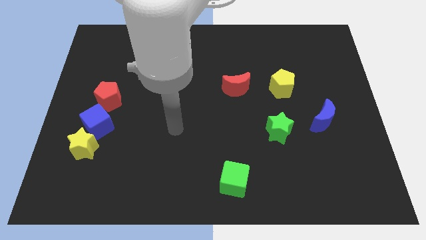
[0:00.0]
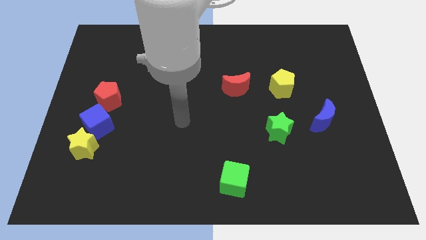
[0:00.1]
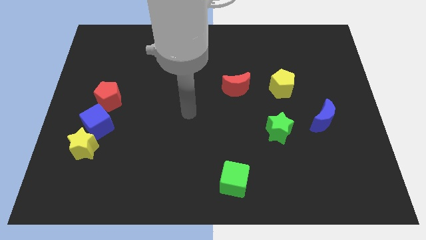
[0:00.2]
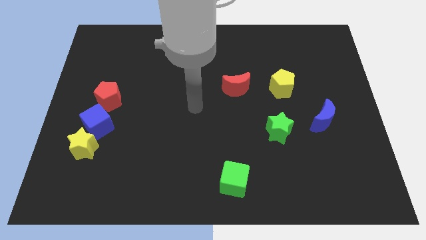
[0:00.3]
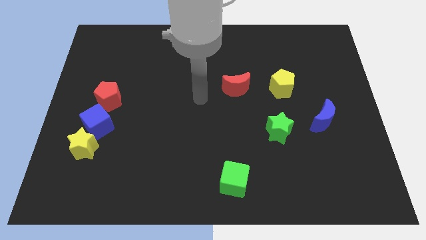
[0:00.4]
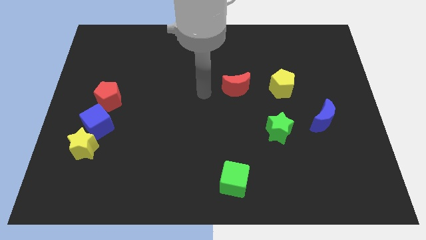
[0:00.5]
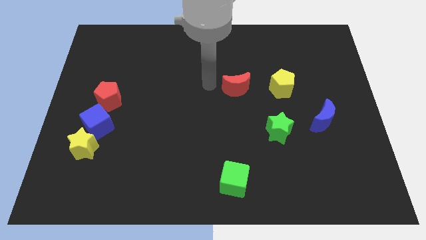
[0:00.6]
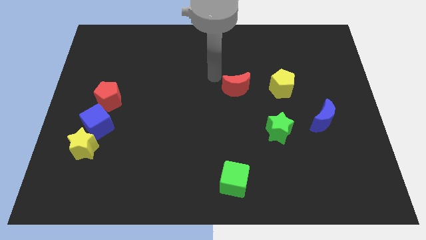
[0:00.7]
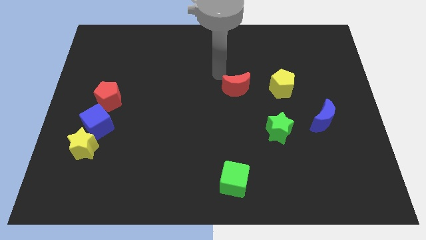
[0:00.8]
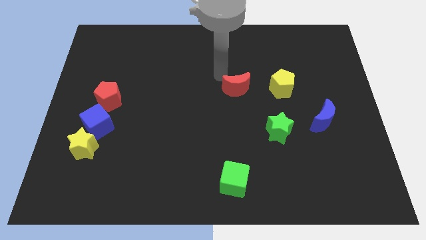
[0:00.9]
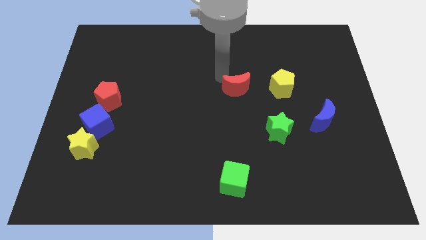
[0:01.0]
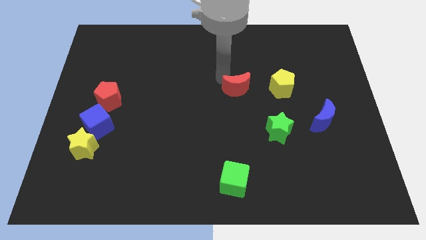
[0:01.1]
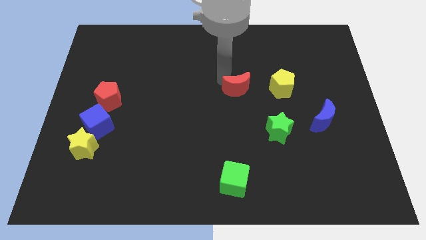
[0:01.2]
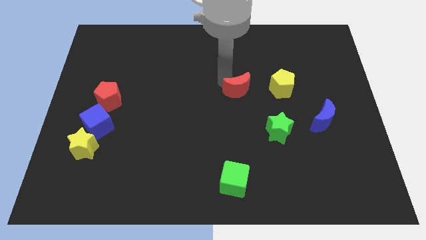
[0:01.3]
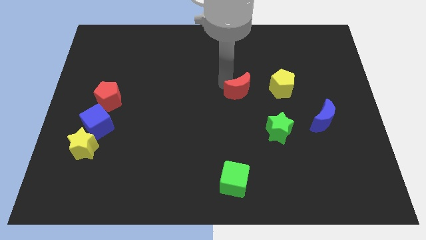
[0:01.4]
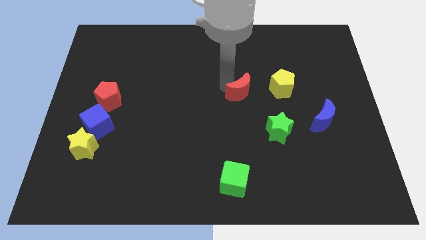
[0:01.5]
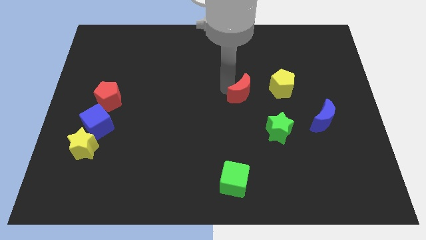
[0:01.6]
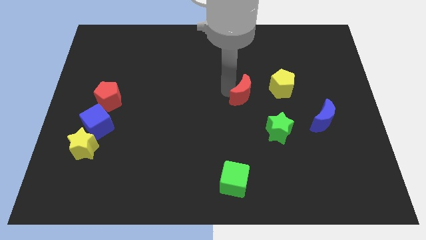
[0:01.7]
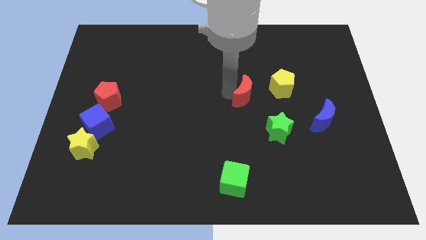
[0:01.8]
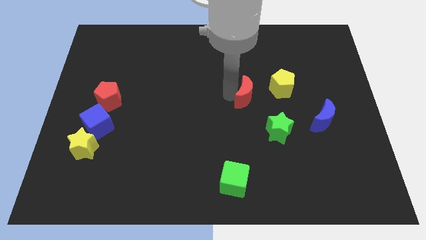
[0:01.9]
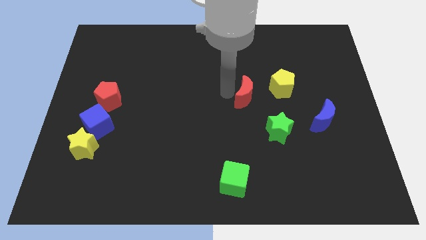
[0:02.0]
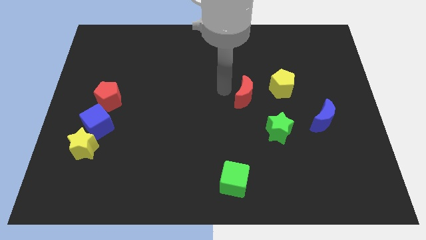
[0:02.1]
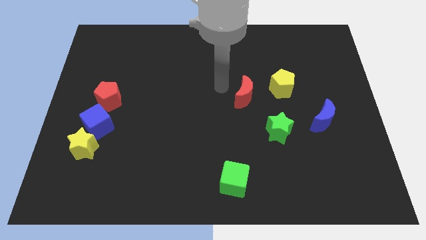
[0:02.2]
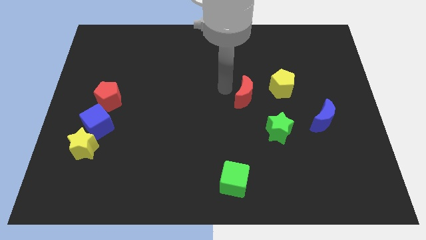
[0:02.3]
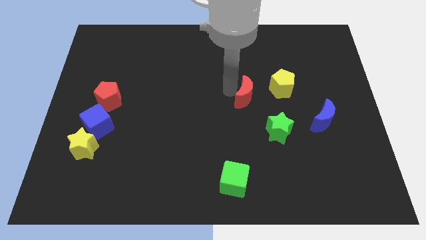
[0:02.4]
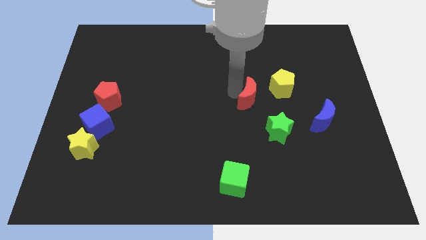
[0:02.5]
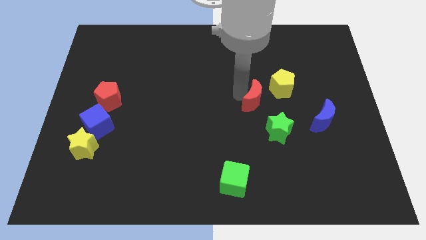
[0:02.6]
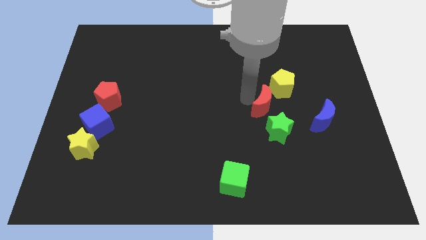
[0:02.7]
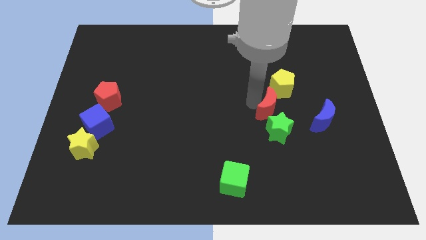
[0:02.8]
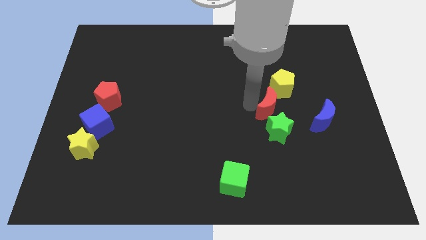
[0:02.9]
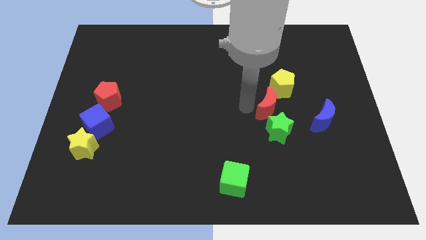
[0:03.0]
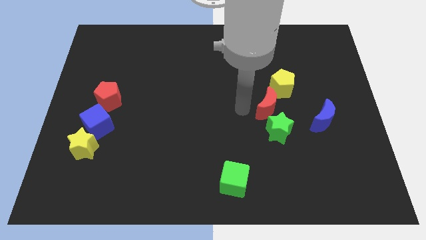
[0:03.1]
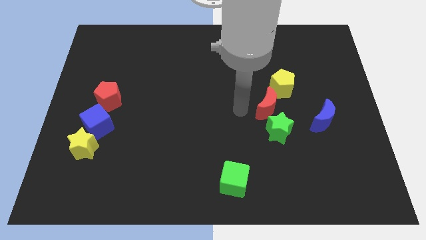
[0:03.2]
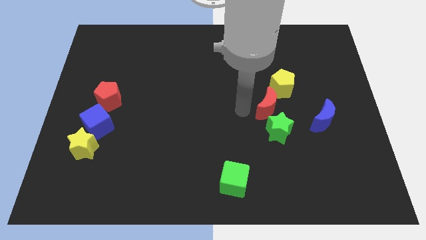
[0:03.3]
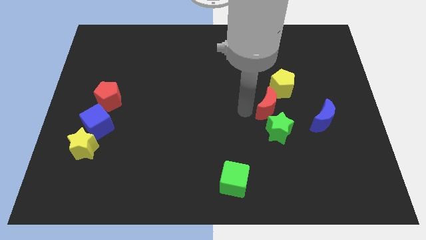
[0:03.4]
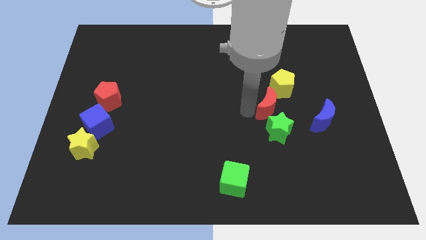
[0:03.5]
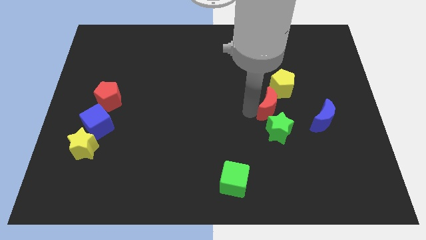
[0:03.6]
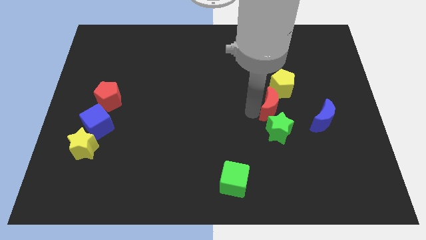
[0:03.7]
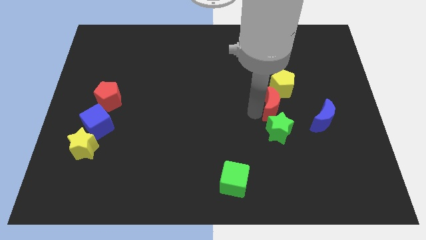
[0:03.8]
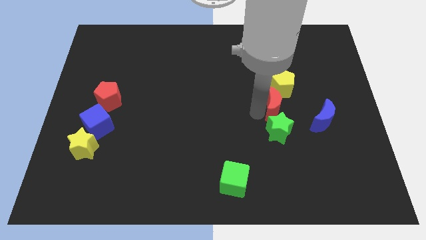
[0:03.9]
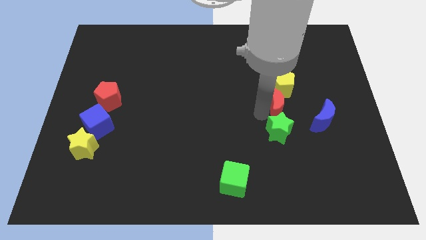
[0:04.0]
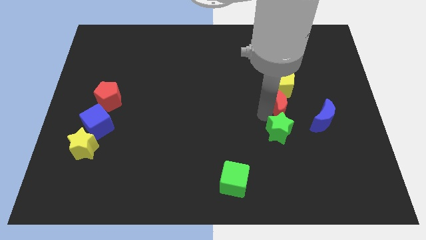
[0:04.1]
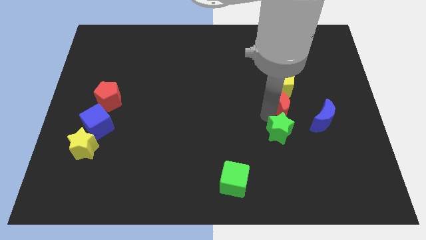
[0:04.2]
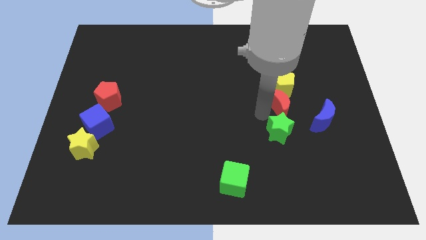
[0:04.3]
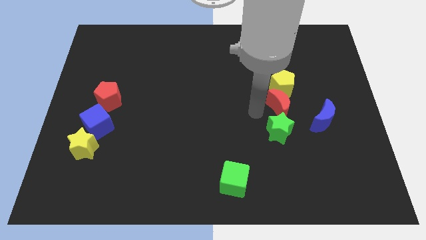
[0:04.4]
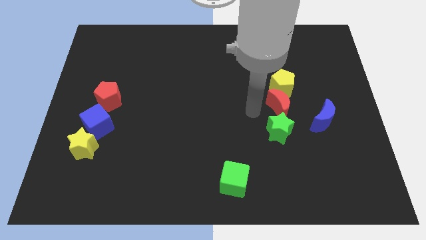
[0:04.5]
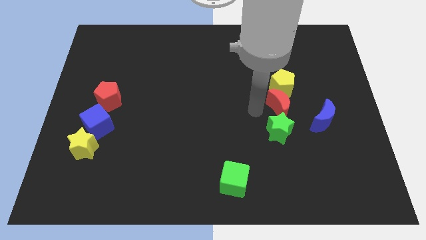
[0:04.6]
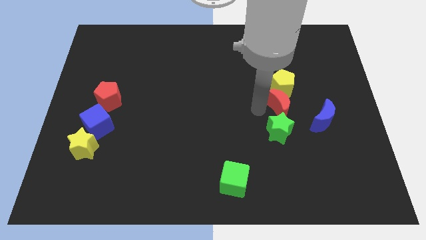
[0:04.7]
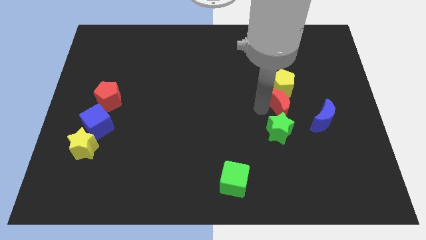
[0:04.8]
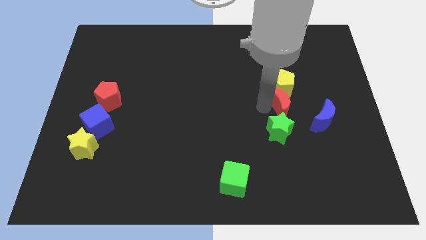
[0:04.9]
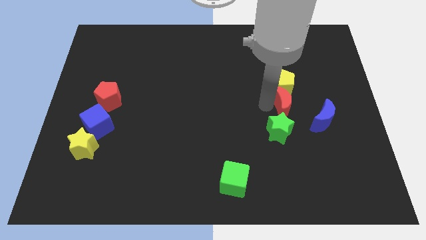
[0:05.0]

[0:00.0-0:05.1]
move the red moon to the bottom right side of the yellow pentagon

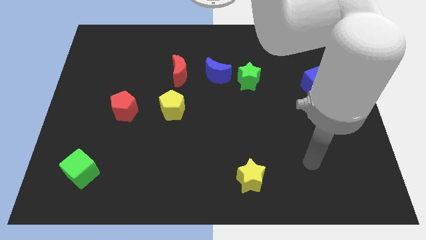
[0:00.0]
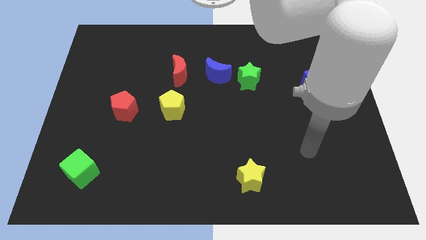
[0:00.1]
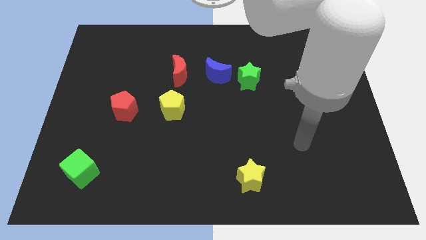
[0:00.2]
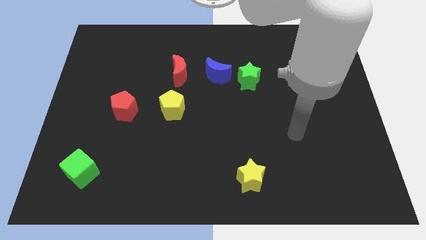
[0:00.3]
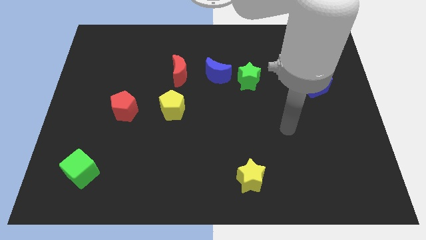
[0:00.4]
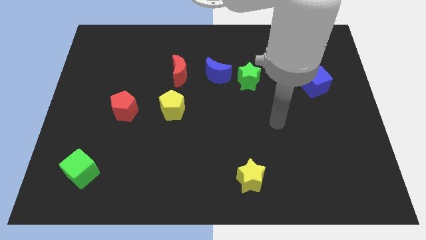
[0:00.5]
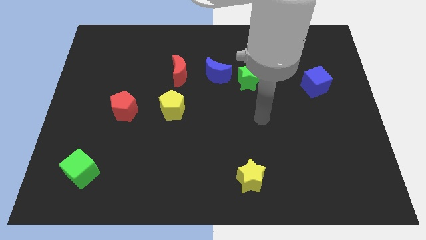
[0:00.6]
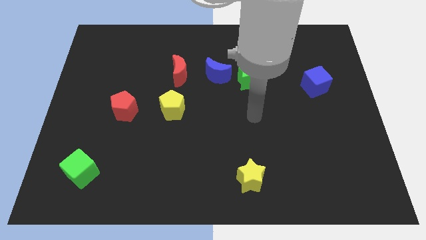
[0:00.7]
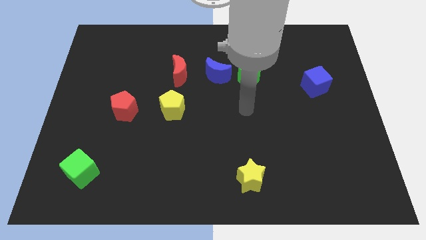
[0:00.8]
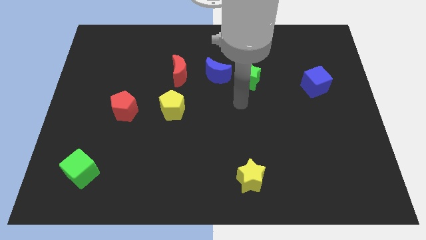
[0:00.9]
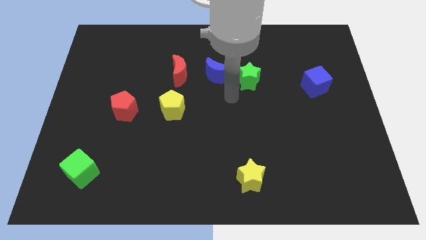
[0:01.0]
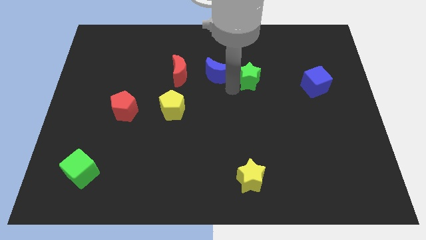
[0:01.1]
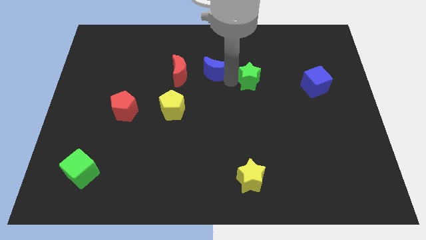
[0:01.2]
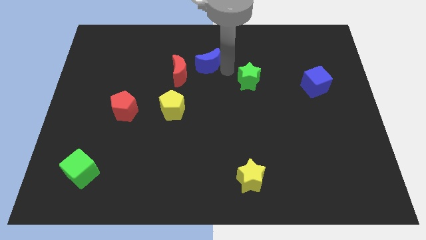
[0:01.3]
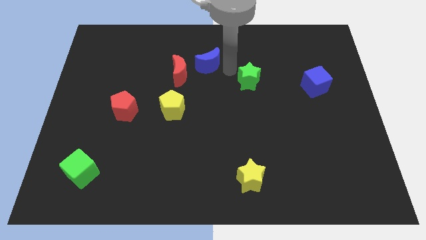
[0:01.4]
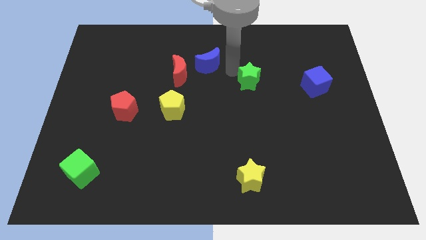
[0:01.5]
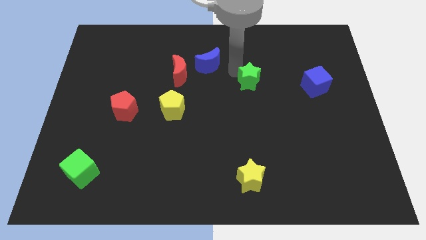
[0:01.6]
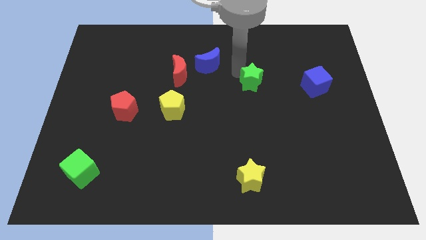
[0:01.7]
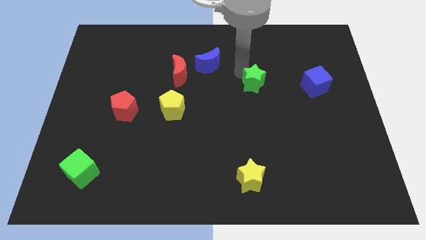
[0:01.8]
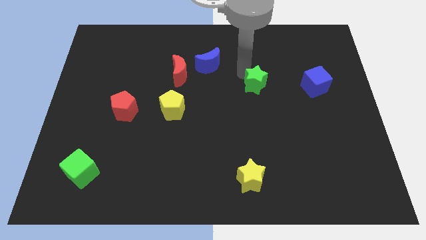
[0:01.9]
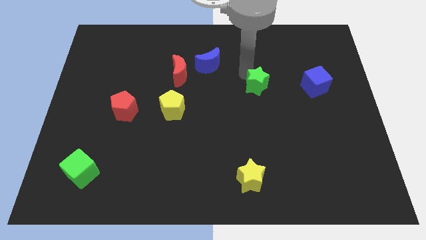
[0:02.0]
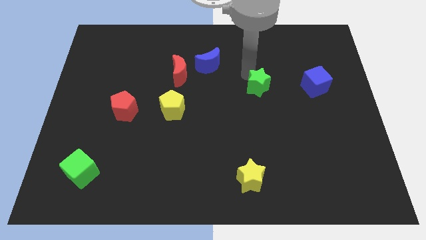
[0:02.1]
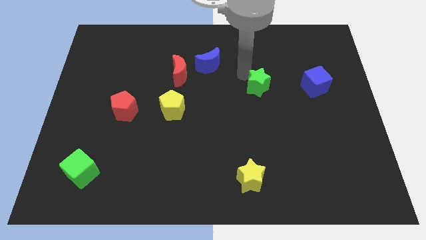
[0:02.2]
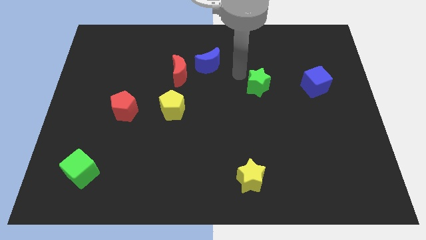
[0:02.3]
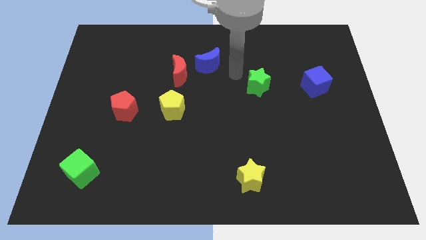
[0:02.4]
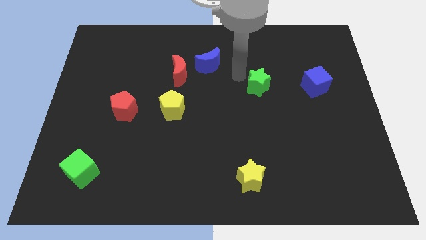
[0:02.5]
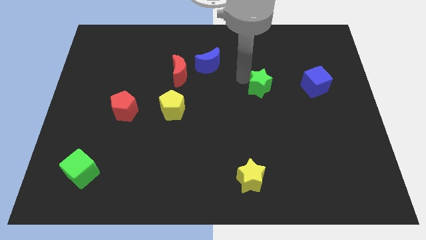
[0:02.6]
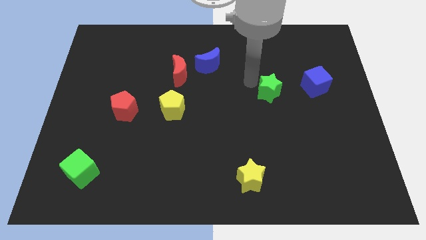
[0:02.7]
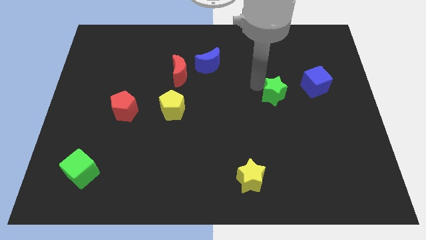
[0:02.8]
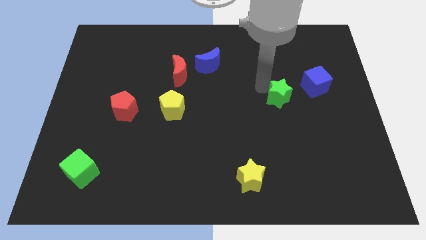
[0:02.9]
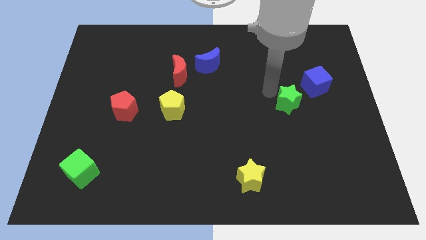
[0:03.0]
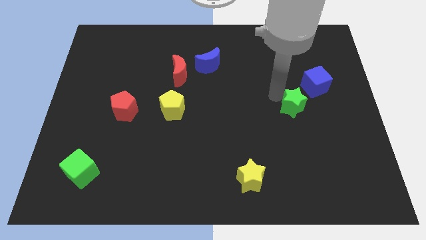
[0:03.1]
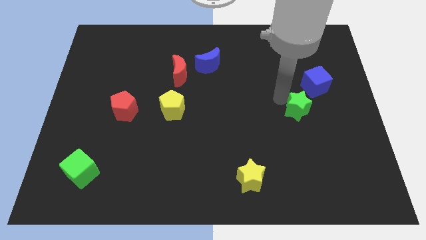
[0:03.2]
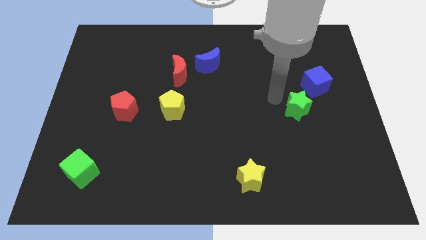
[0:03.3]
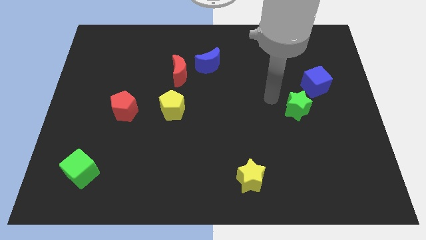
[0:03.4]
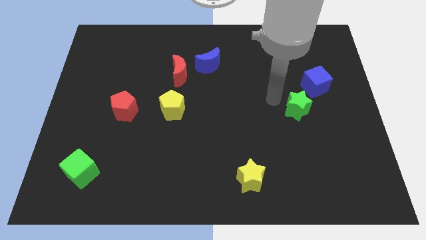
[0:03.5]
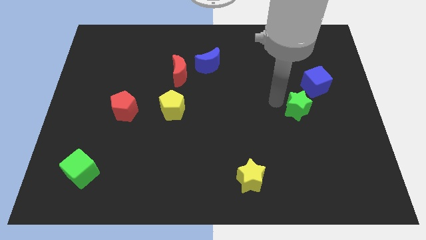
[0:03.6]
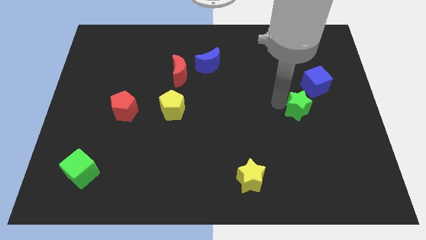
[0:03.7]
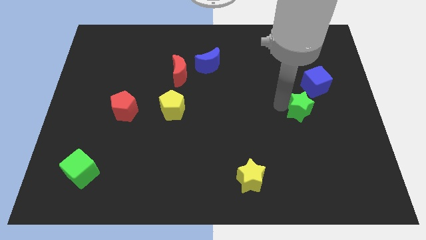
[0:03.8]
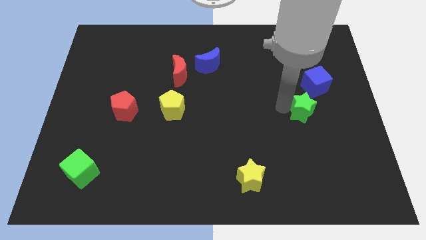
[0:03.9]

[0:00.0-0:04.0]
move the green star to the bottom side of the blue cube
